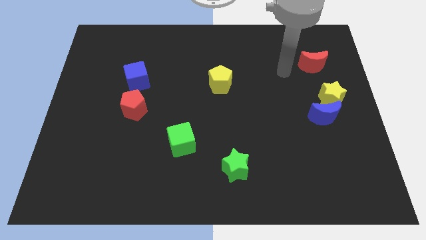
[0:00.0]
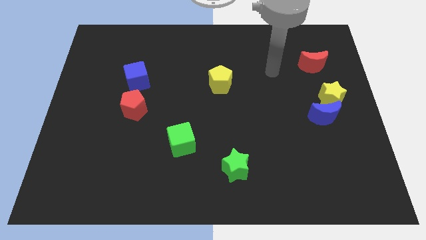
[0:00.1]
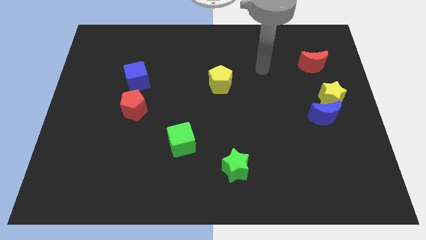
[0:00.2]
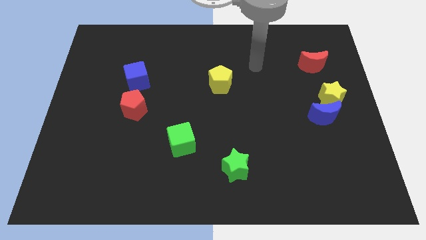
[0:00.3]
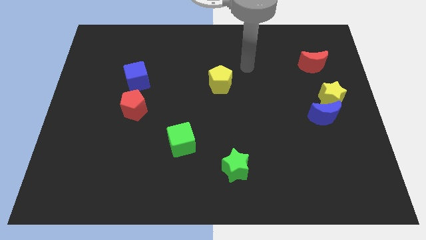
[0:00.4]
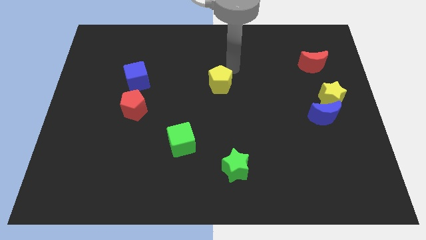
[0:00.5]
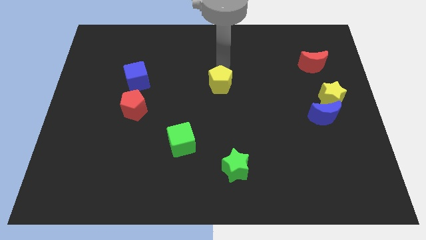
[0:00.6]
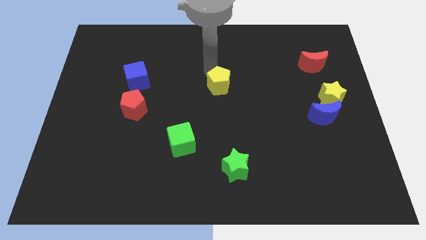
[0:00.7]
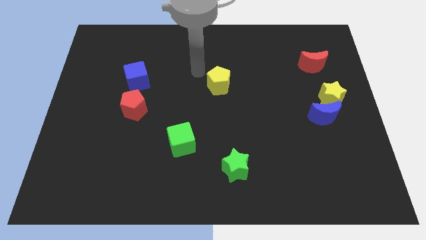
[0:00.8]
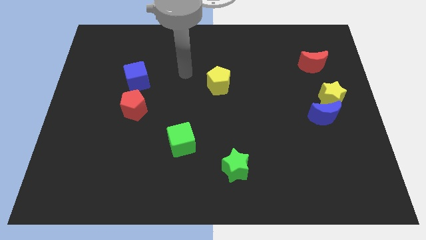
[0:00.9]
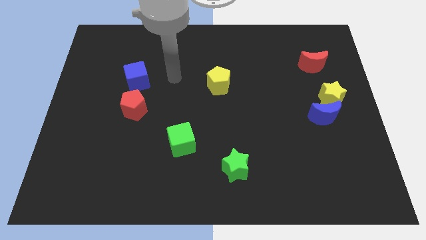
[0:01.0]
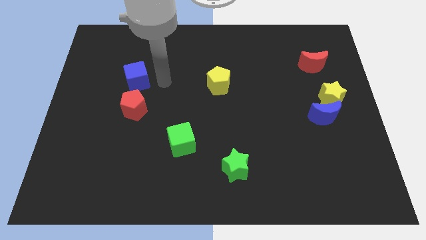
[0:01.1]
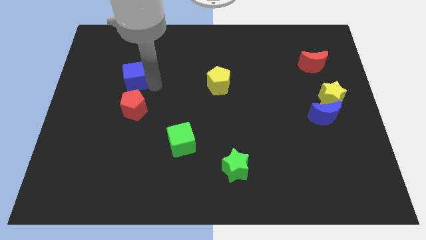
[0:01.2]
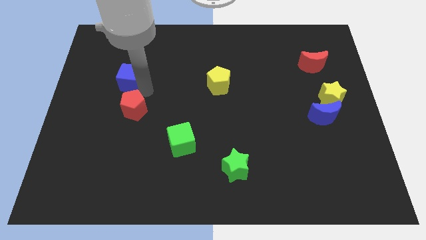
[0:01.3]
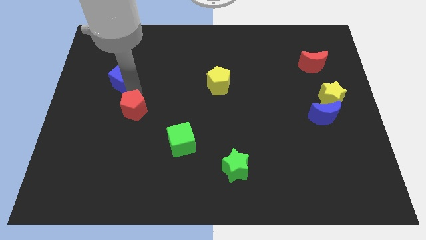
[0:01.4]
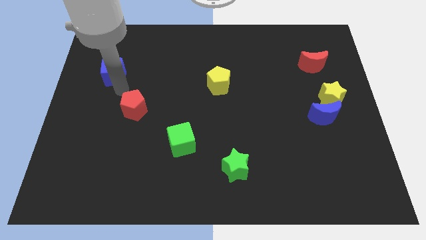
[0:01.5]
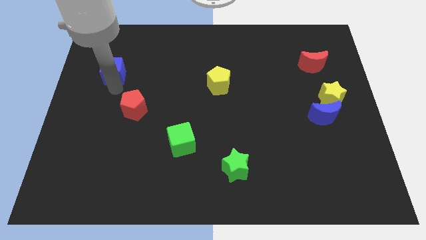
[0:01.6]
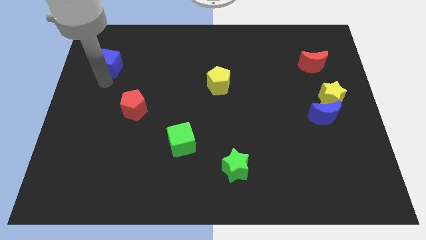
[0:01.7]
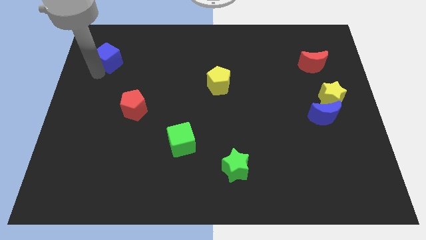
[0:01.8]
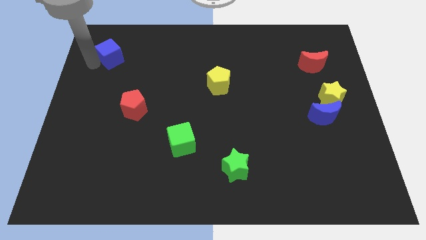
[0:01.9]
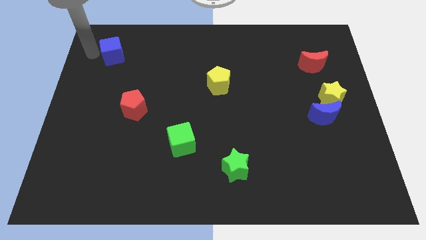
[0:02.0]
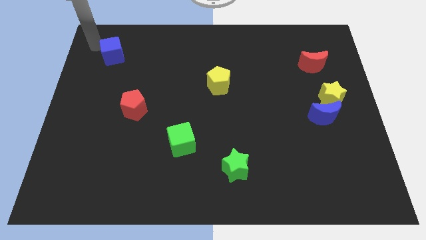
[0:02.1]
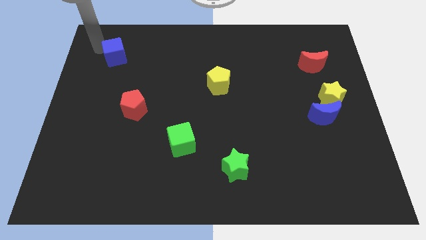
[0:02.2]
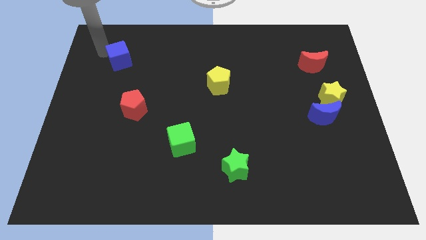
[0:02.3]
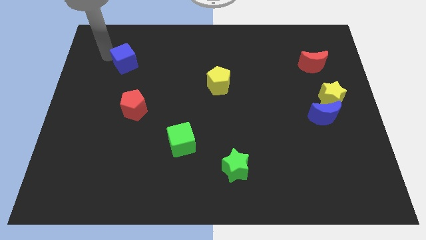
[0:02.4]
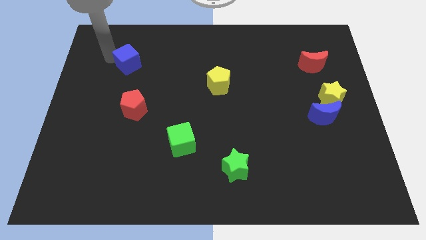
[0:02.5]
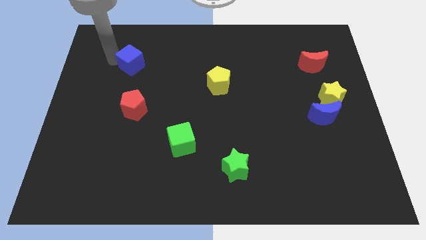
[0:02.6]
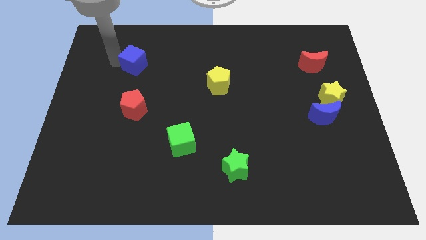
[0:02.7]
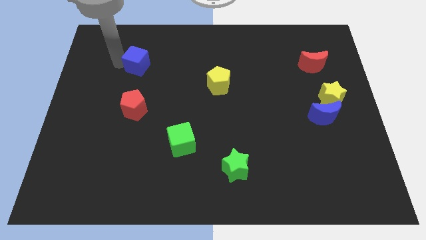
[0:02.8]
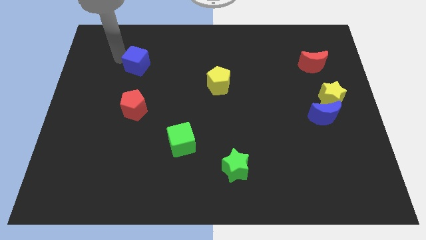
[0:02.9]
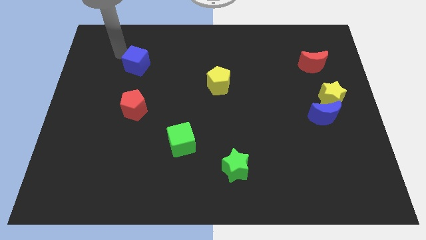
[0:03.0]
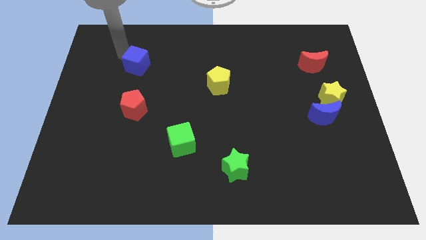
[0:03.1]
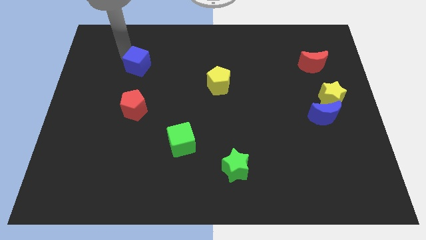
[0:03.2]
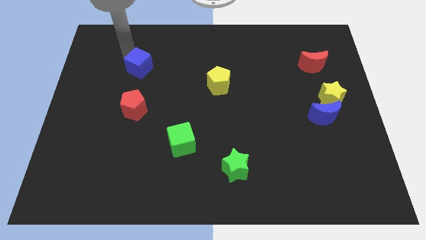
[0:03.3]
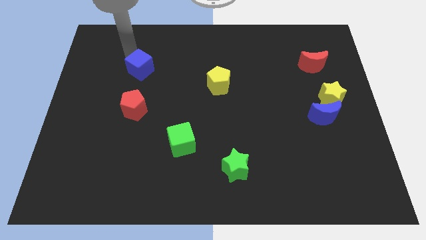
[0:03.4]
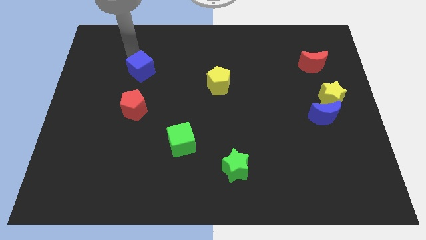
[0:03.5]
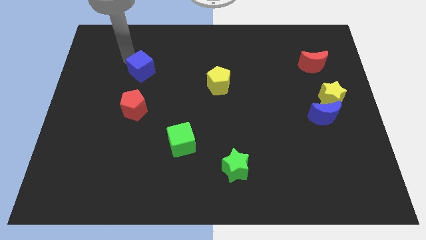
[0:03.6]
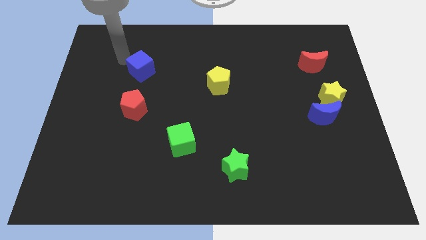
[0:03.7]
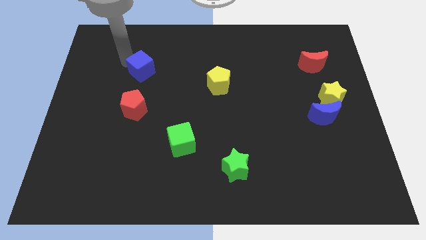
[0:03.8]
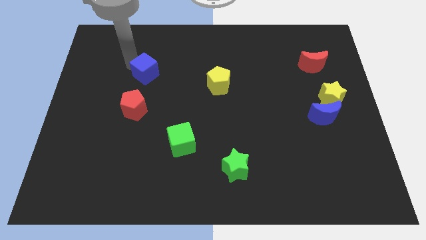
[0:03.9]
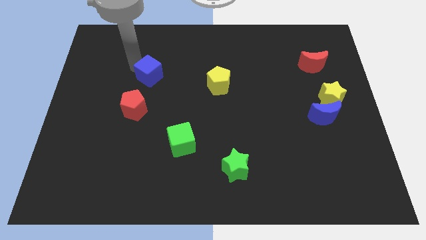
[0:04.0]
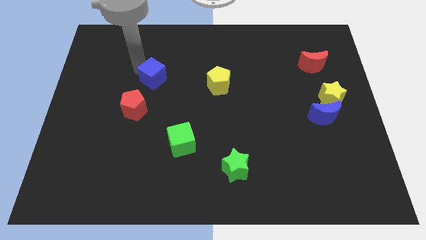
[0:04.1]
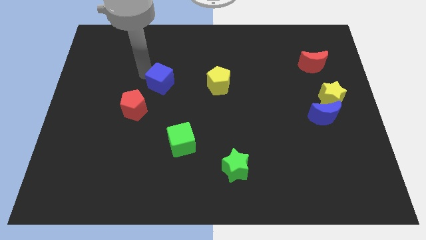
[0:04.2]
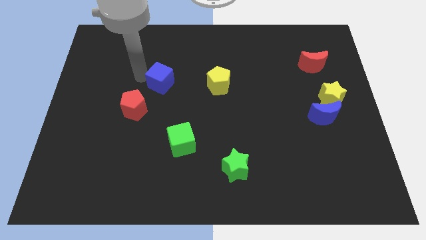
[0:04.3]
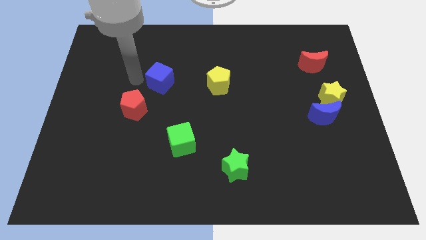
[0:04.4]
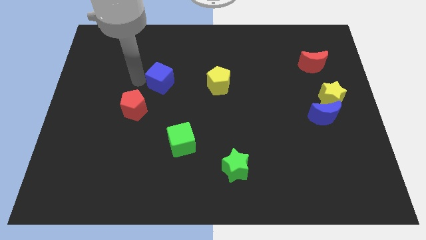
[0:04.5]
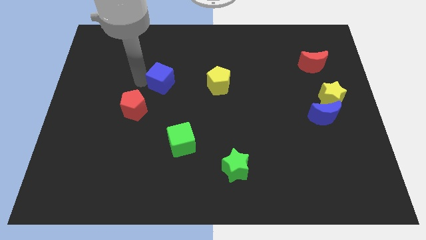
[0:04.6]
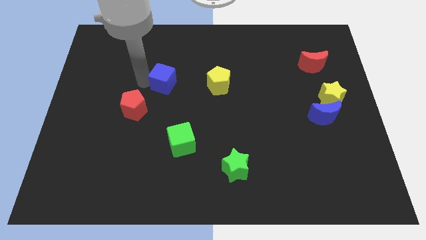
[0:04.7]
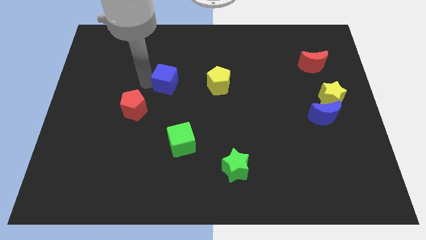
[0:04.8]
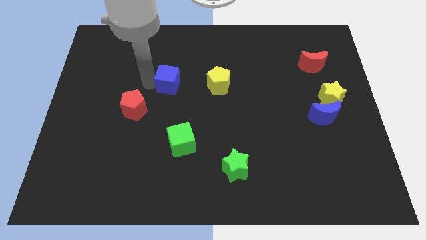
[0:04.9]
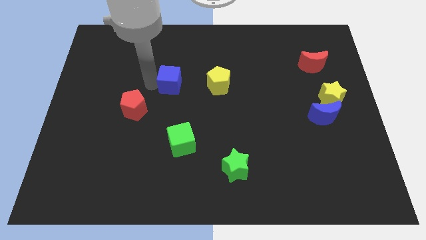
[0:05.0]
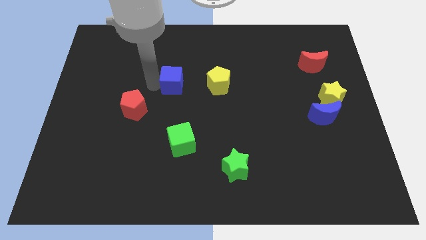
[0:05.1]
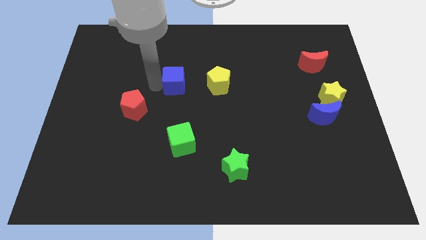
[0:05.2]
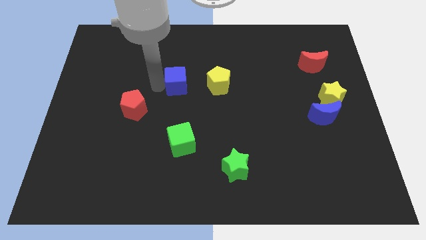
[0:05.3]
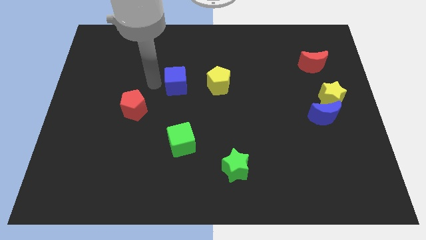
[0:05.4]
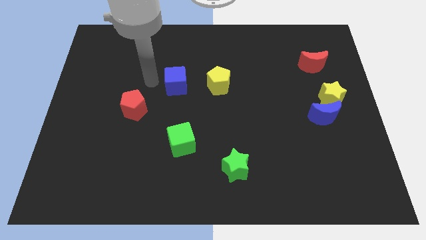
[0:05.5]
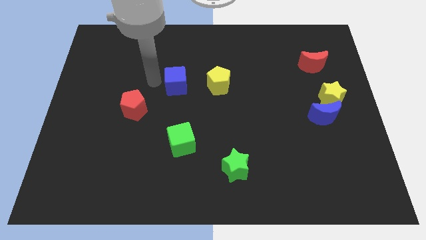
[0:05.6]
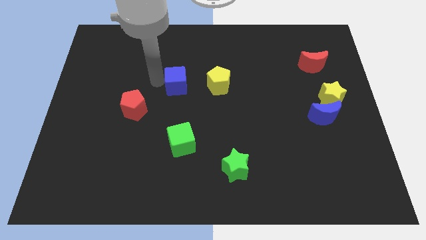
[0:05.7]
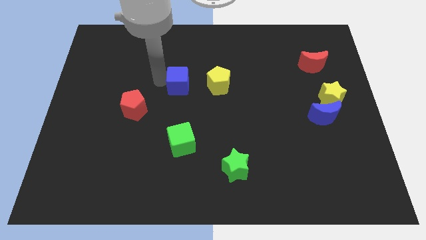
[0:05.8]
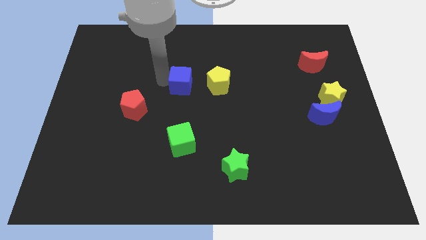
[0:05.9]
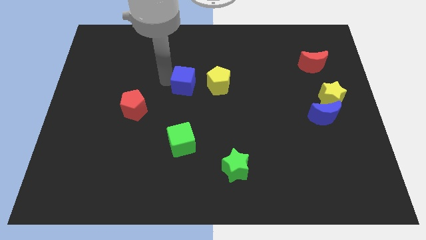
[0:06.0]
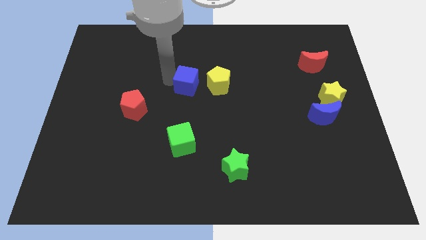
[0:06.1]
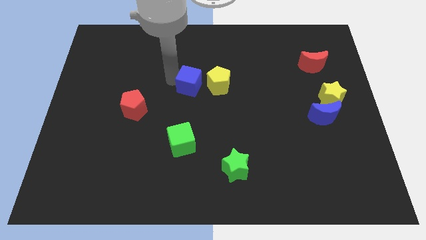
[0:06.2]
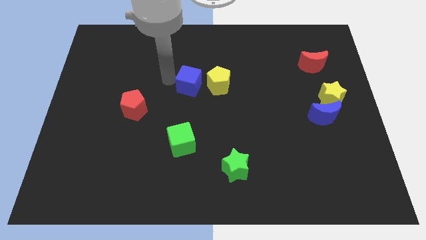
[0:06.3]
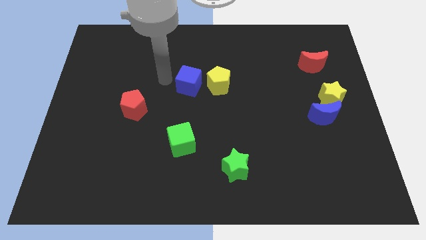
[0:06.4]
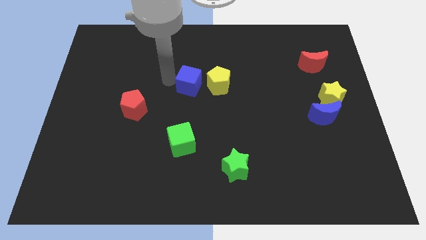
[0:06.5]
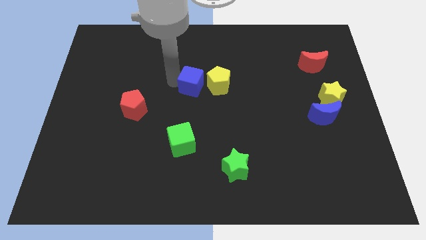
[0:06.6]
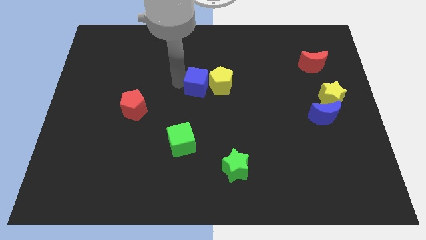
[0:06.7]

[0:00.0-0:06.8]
slide the blue cube to the yellow pentagon

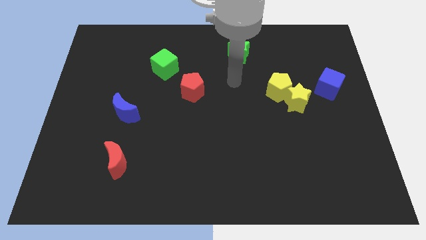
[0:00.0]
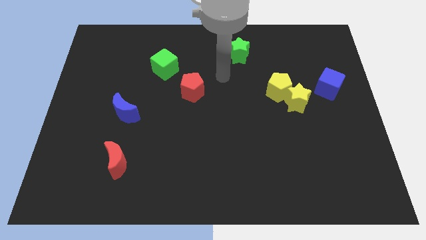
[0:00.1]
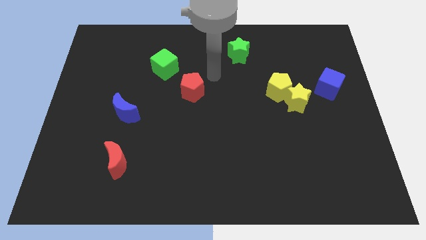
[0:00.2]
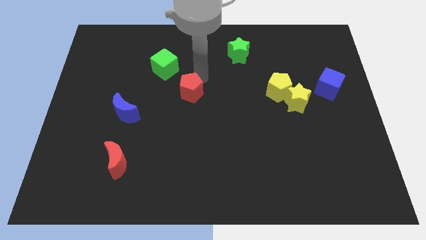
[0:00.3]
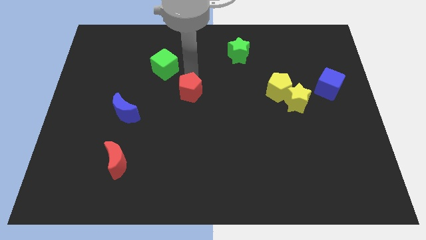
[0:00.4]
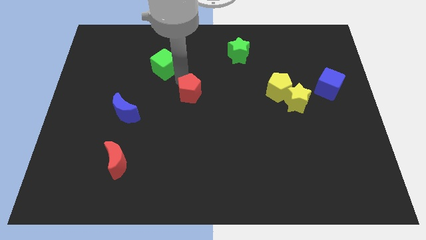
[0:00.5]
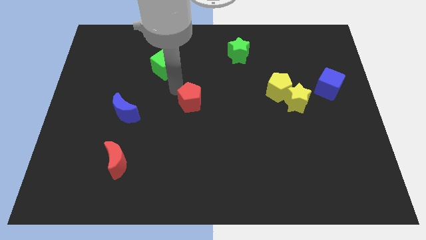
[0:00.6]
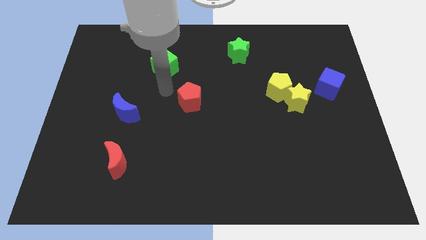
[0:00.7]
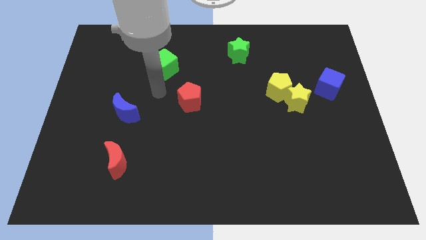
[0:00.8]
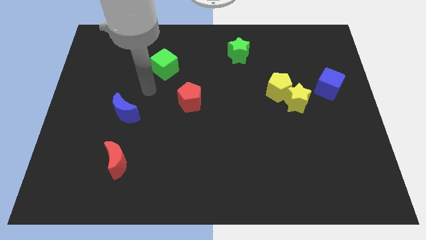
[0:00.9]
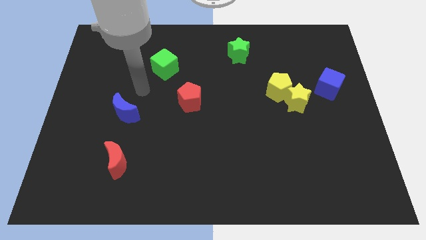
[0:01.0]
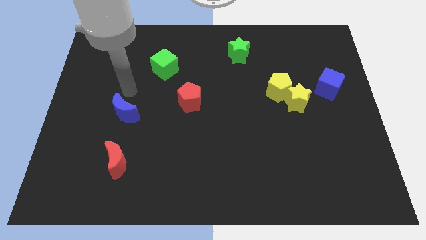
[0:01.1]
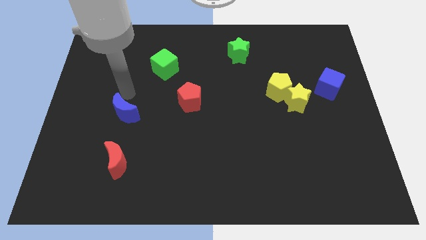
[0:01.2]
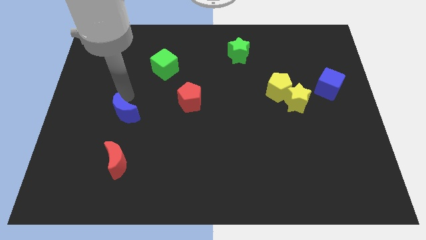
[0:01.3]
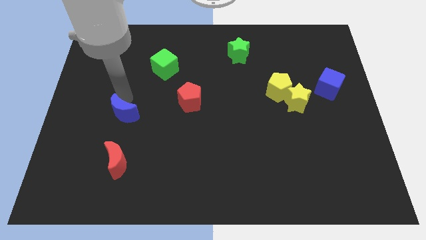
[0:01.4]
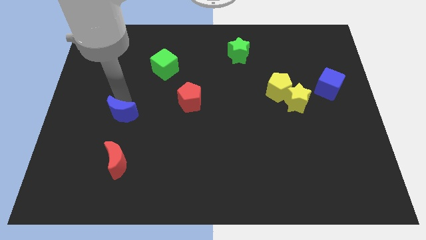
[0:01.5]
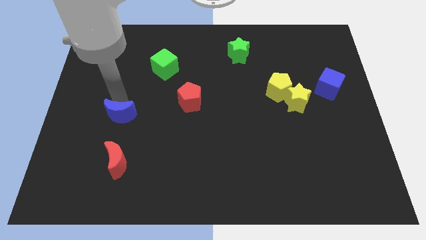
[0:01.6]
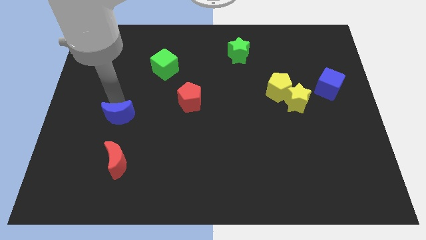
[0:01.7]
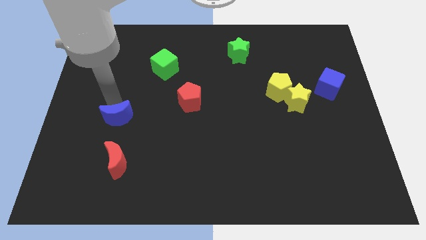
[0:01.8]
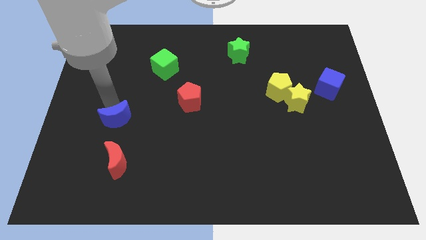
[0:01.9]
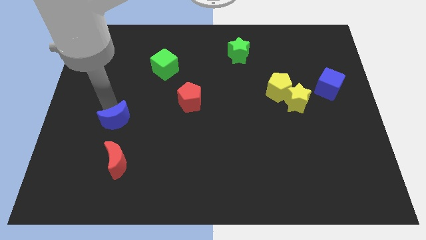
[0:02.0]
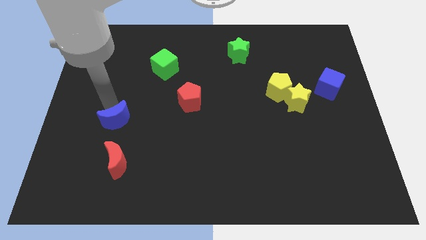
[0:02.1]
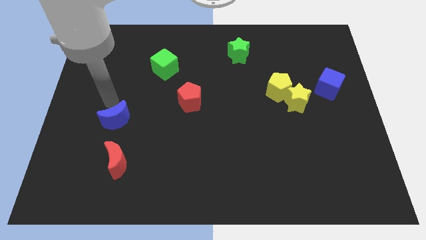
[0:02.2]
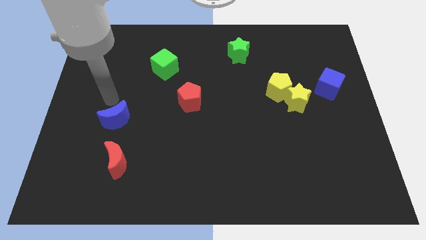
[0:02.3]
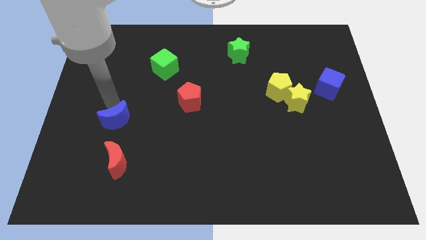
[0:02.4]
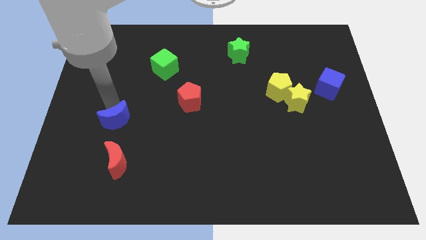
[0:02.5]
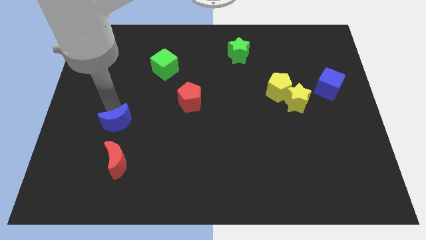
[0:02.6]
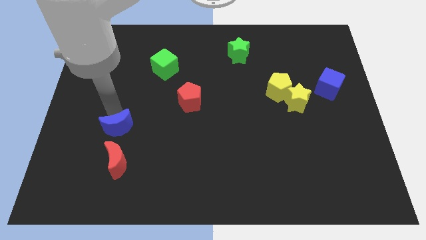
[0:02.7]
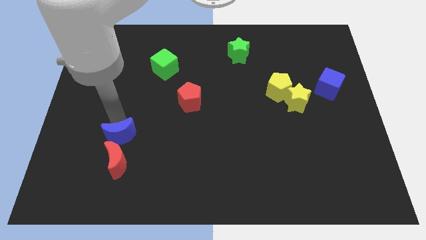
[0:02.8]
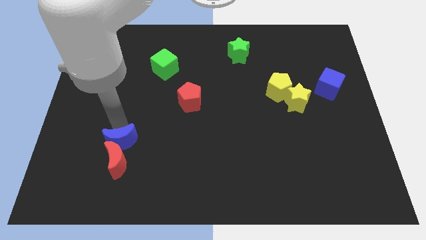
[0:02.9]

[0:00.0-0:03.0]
move the blue moon next to the red moon
